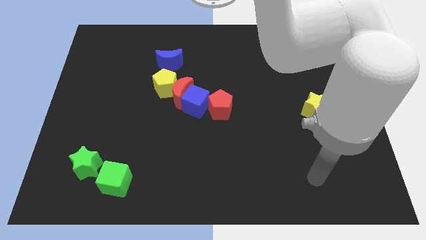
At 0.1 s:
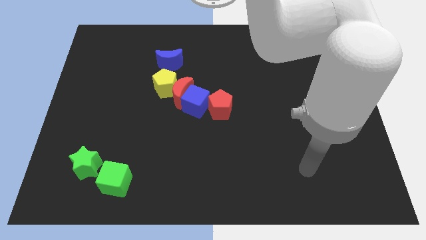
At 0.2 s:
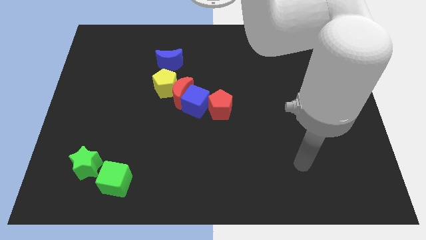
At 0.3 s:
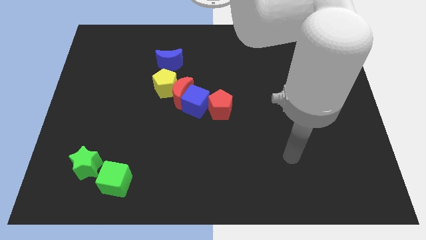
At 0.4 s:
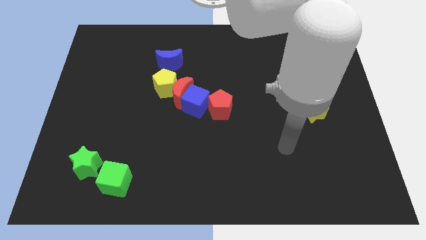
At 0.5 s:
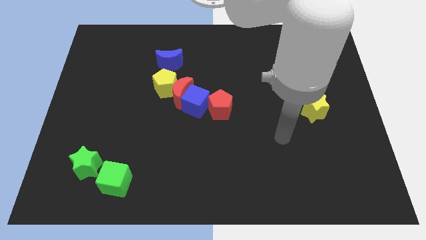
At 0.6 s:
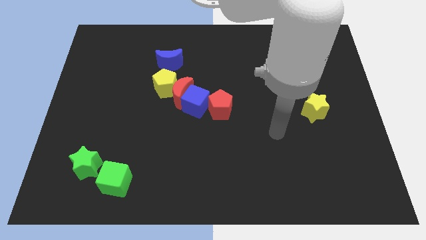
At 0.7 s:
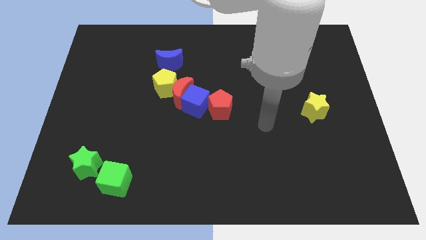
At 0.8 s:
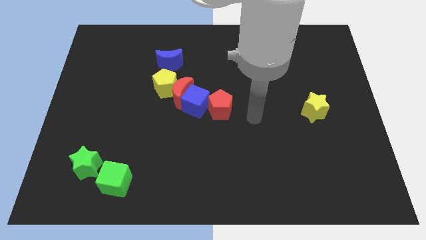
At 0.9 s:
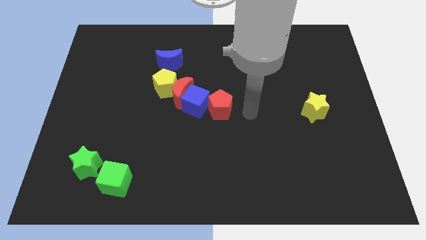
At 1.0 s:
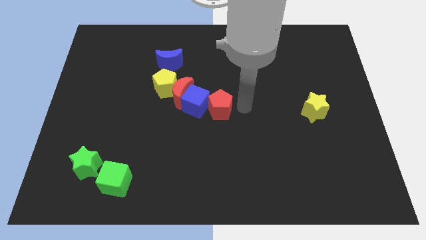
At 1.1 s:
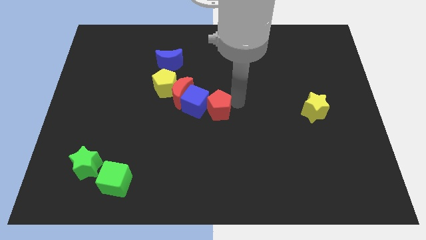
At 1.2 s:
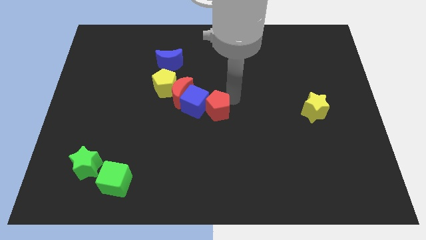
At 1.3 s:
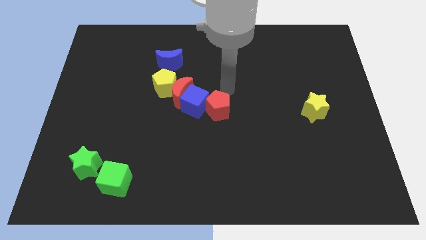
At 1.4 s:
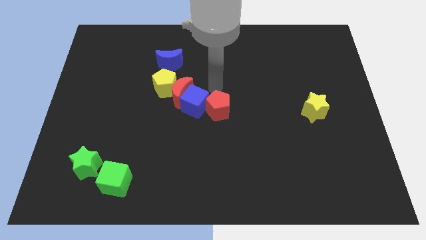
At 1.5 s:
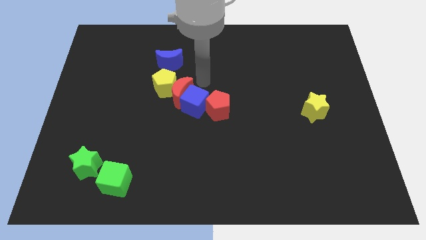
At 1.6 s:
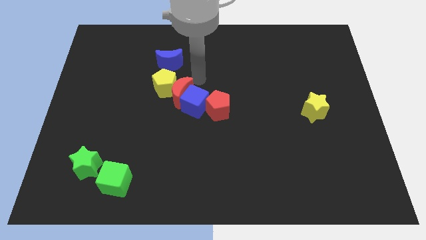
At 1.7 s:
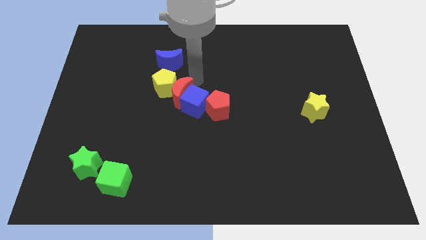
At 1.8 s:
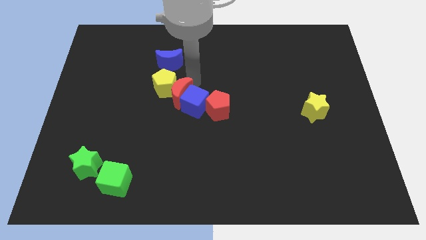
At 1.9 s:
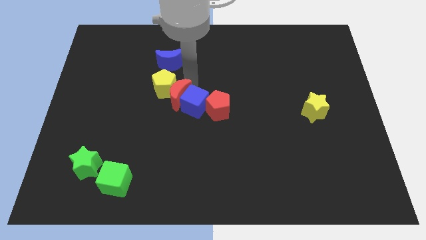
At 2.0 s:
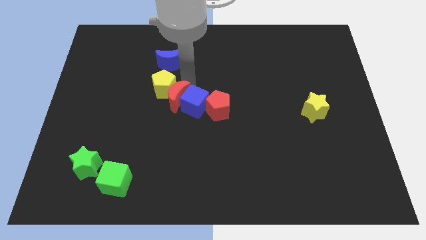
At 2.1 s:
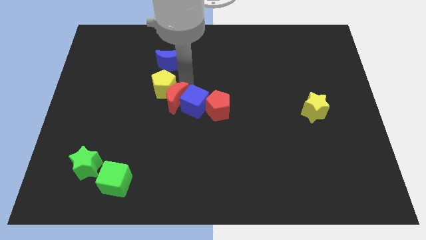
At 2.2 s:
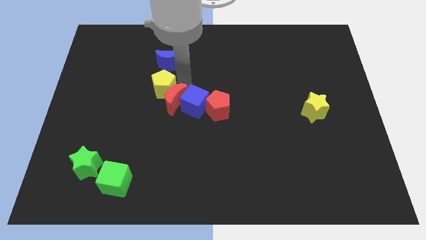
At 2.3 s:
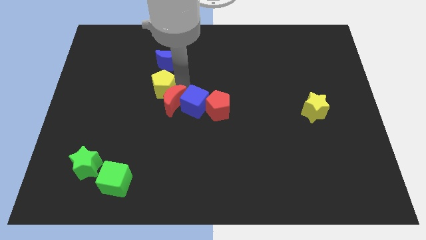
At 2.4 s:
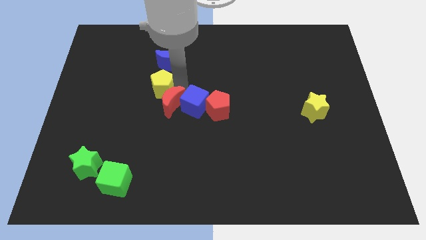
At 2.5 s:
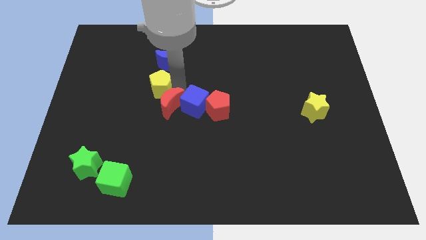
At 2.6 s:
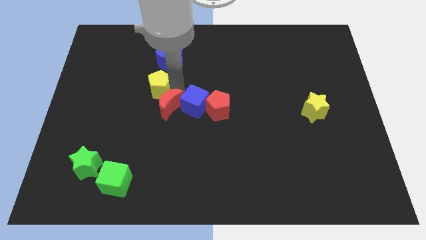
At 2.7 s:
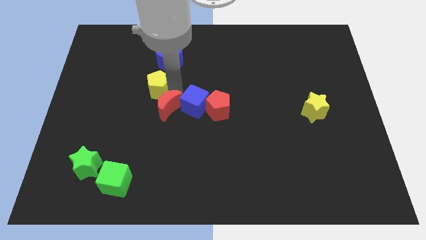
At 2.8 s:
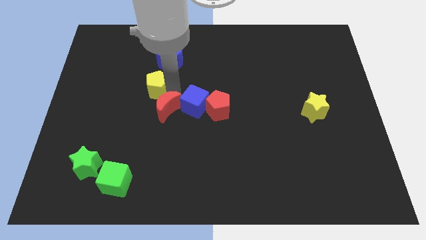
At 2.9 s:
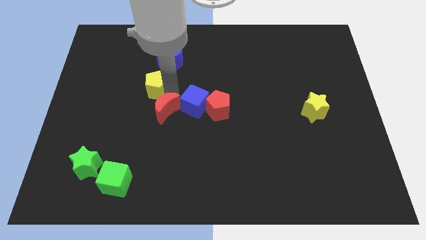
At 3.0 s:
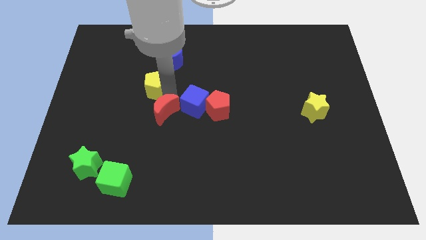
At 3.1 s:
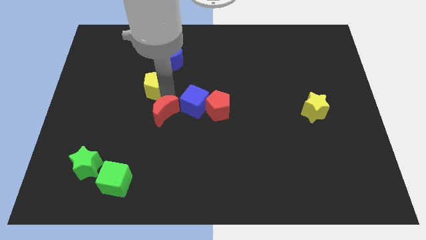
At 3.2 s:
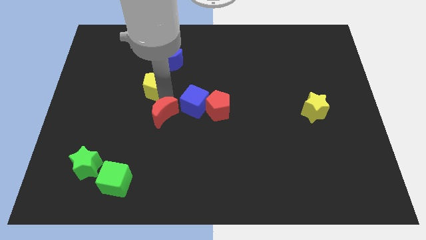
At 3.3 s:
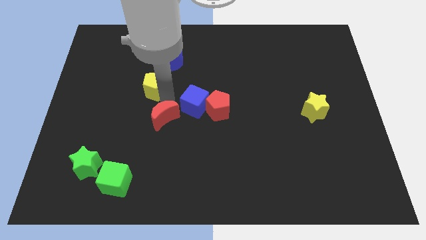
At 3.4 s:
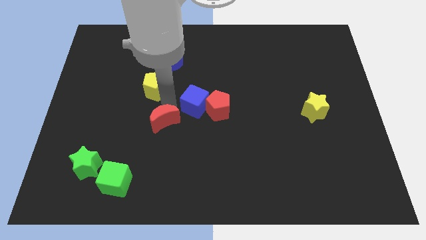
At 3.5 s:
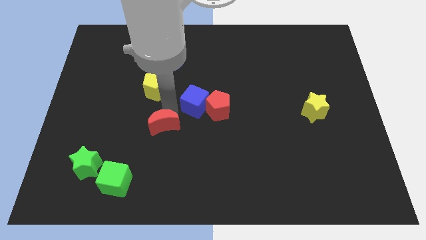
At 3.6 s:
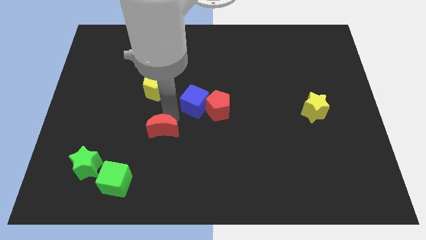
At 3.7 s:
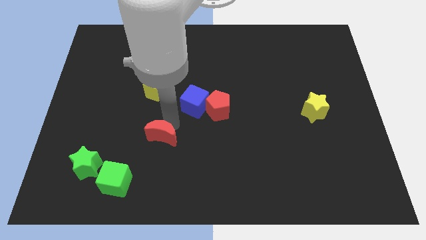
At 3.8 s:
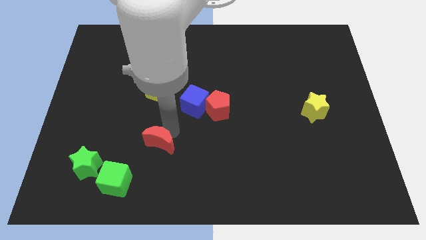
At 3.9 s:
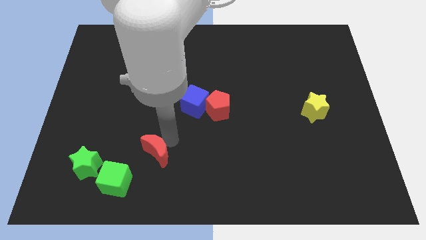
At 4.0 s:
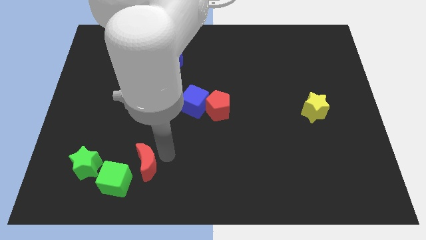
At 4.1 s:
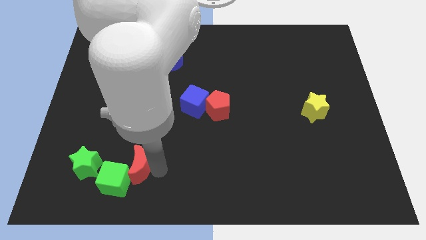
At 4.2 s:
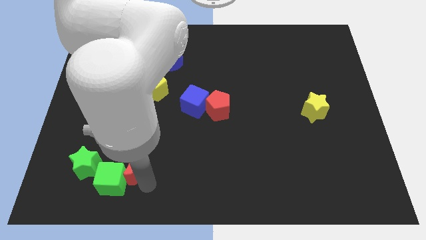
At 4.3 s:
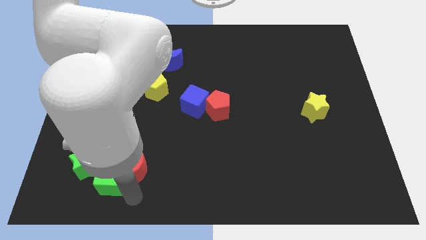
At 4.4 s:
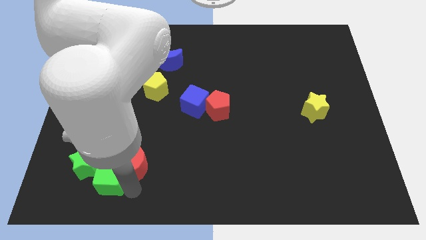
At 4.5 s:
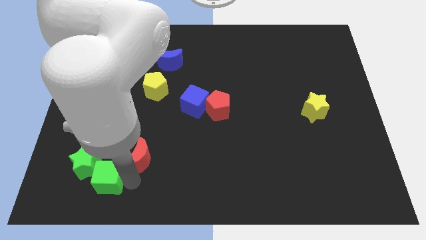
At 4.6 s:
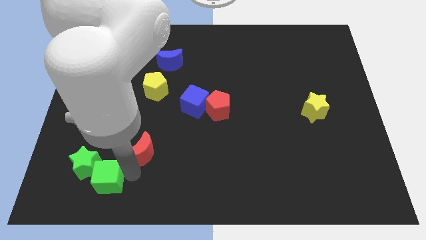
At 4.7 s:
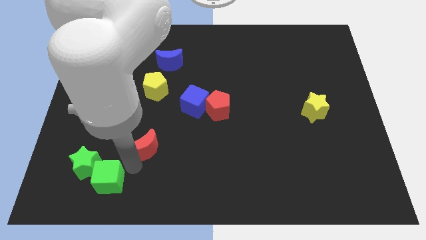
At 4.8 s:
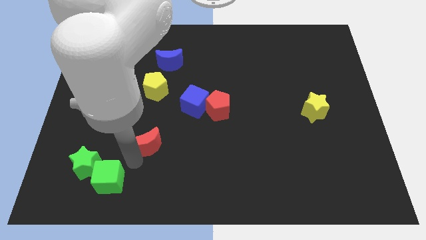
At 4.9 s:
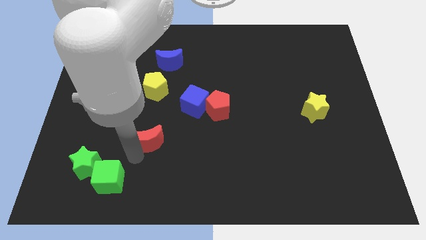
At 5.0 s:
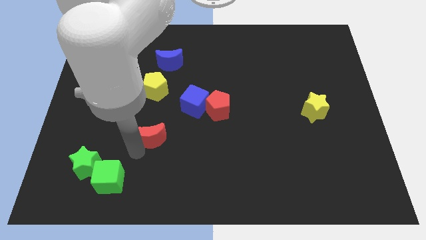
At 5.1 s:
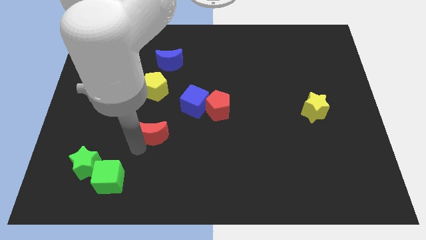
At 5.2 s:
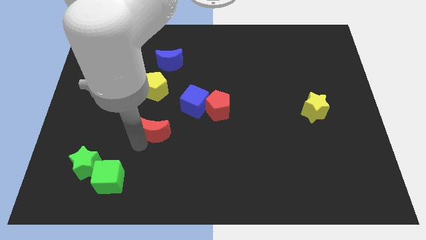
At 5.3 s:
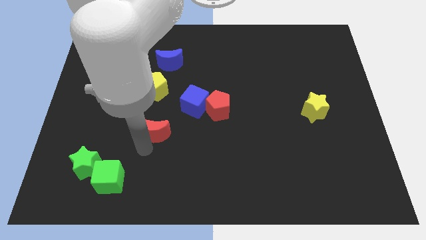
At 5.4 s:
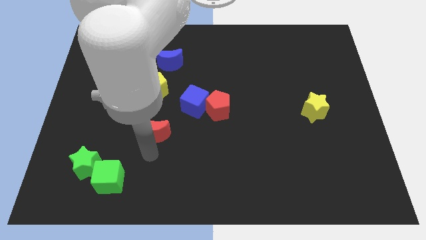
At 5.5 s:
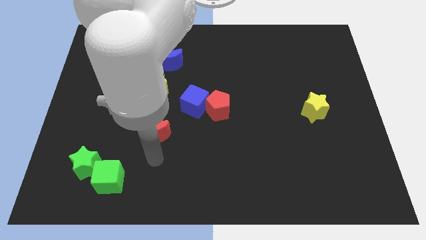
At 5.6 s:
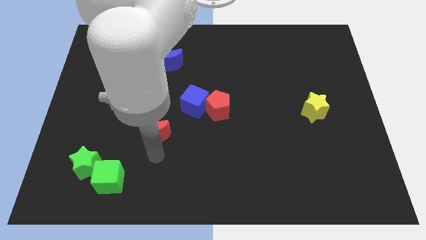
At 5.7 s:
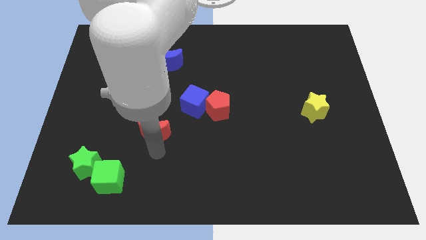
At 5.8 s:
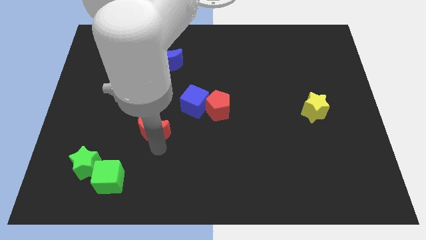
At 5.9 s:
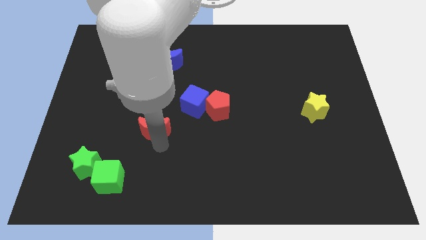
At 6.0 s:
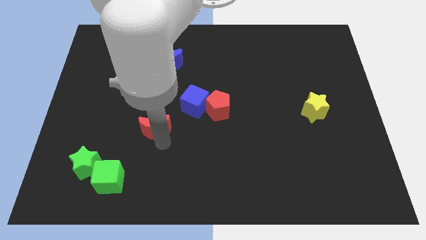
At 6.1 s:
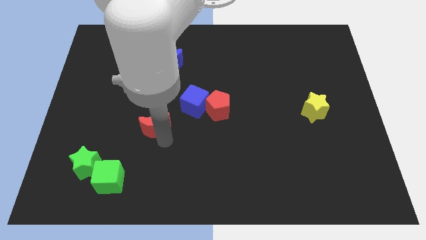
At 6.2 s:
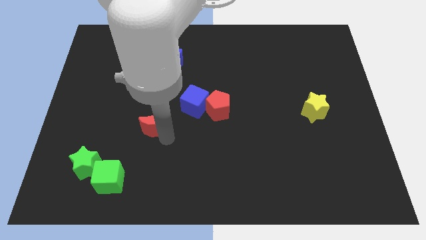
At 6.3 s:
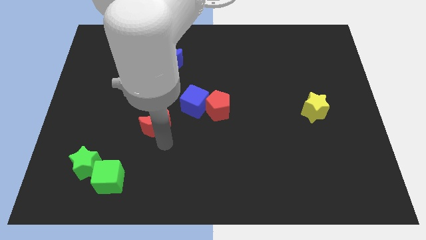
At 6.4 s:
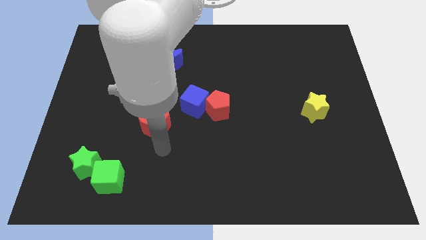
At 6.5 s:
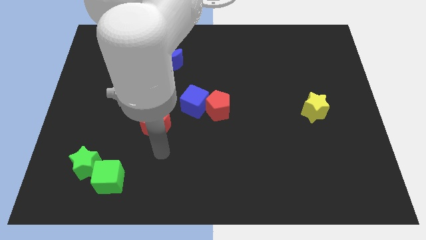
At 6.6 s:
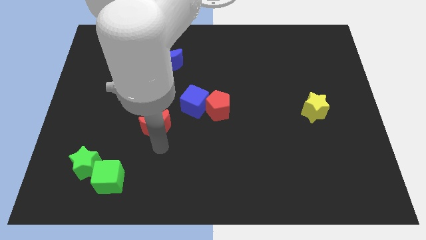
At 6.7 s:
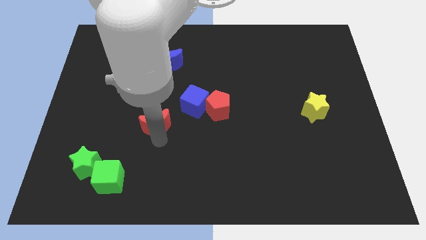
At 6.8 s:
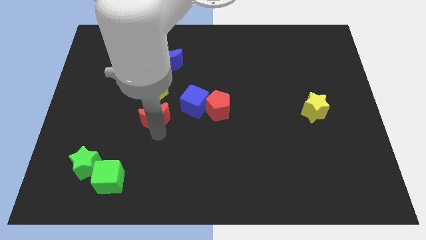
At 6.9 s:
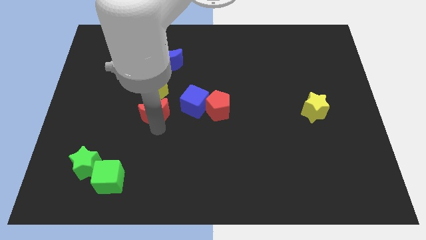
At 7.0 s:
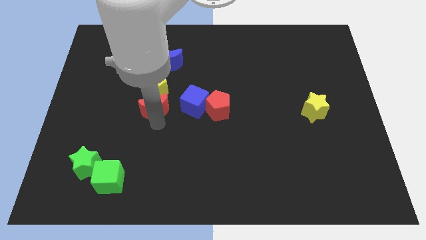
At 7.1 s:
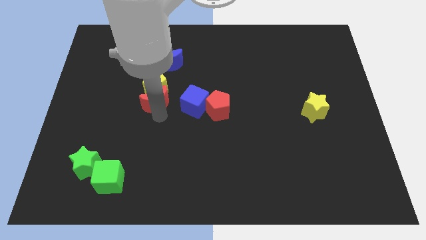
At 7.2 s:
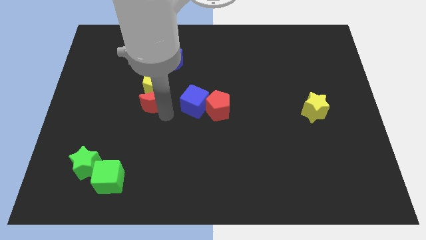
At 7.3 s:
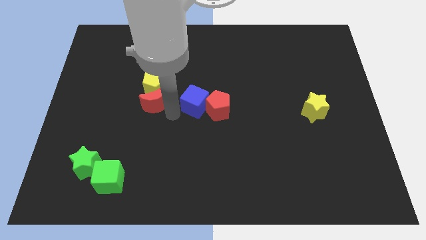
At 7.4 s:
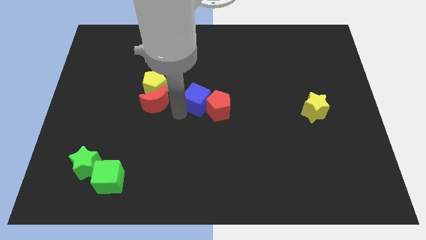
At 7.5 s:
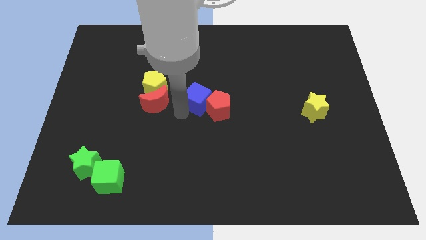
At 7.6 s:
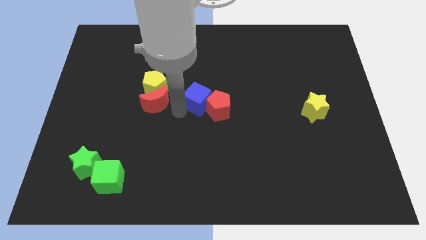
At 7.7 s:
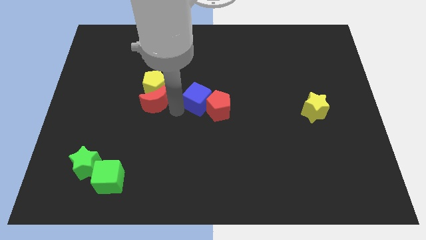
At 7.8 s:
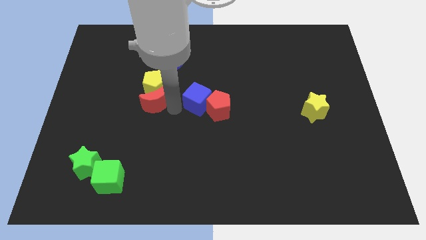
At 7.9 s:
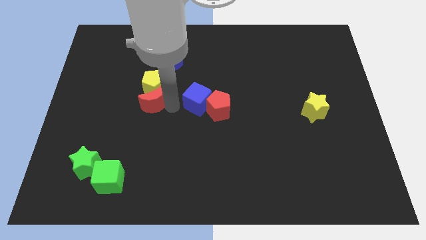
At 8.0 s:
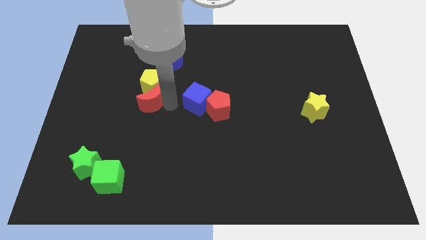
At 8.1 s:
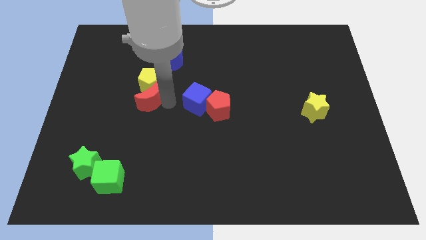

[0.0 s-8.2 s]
move the red moon left a little

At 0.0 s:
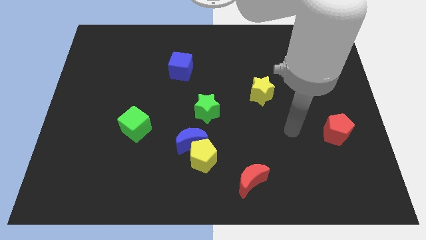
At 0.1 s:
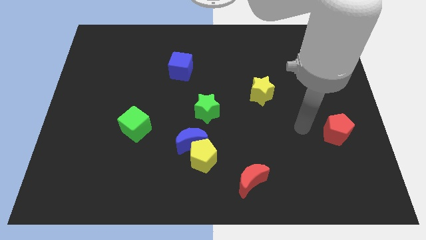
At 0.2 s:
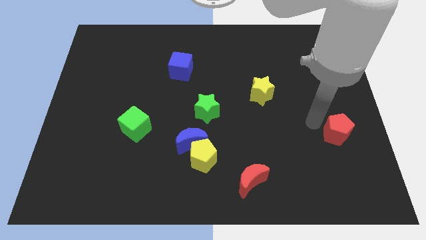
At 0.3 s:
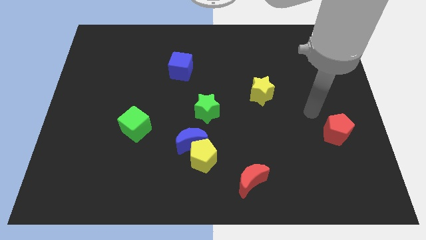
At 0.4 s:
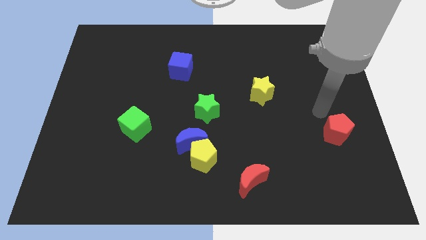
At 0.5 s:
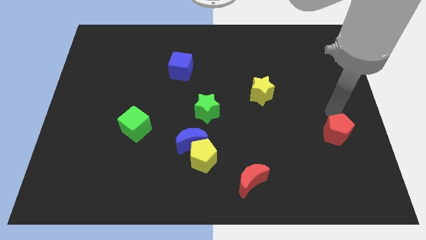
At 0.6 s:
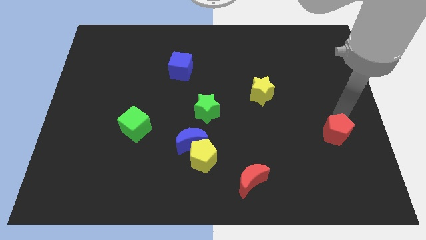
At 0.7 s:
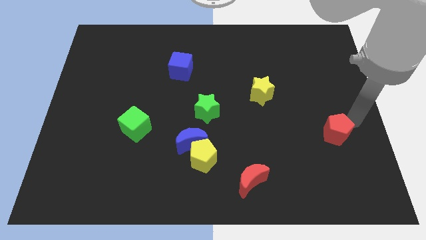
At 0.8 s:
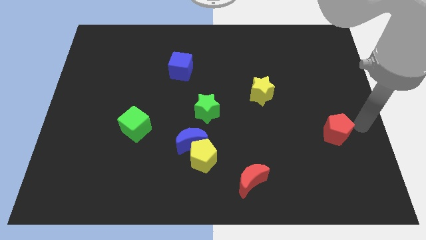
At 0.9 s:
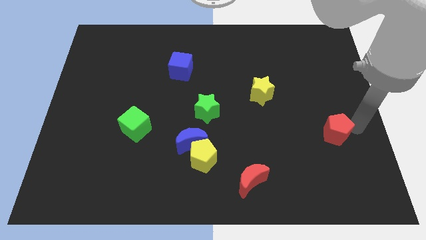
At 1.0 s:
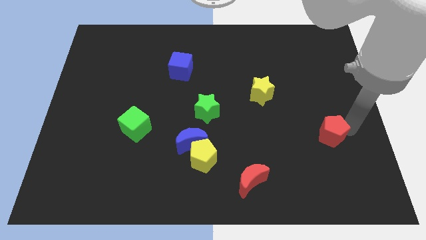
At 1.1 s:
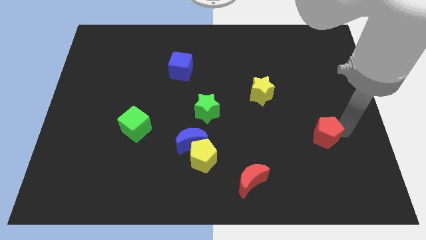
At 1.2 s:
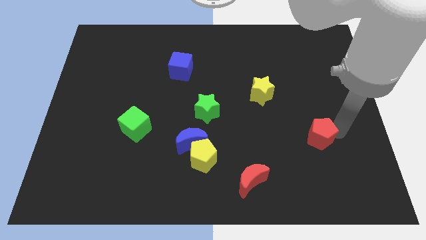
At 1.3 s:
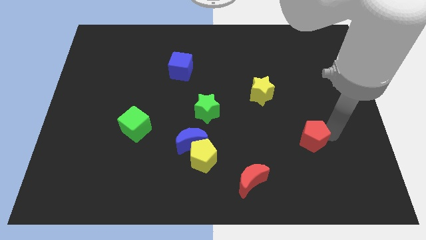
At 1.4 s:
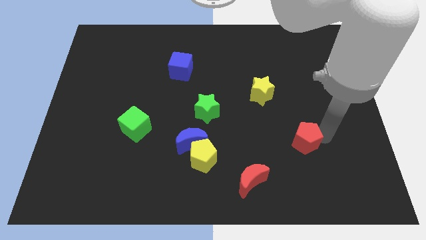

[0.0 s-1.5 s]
slide the red pentagon left slightly
